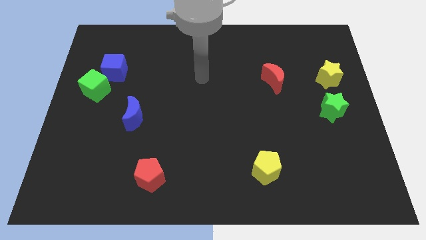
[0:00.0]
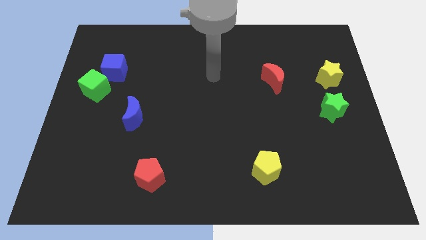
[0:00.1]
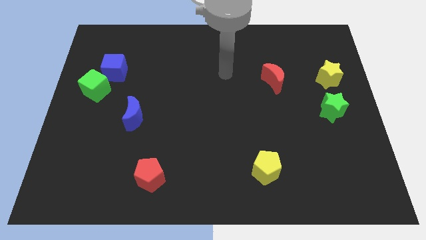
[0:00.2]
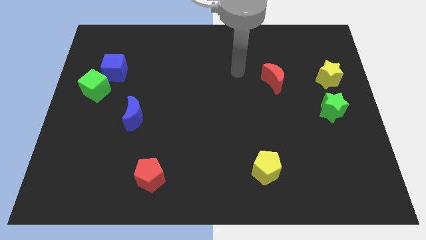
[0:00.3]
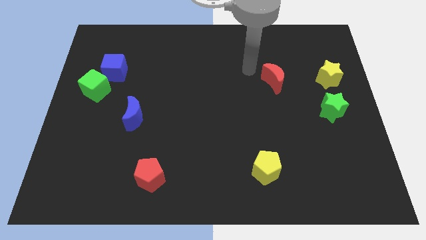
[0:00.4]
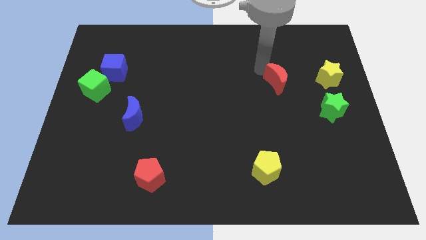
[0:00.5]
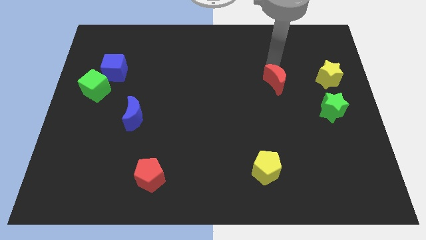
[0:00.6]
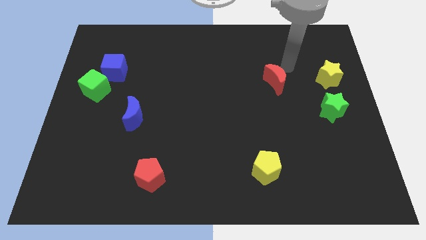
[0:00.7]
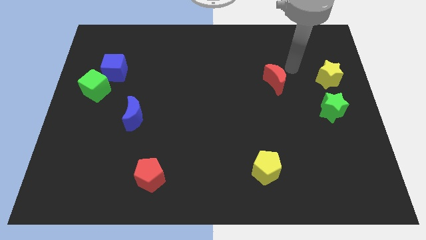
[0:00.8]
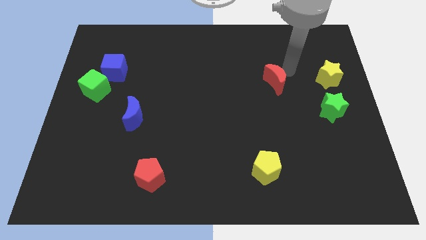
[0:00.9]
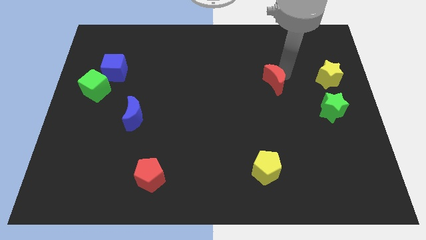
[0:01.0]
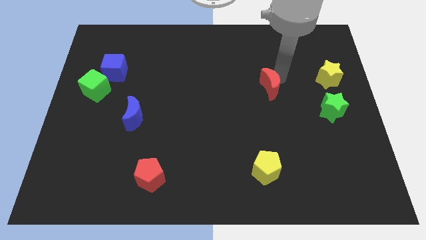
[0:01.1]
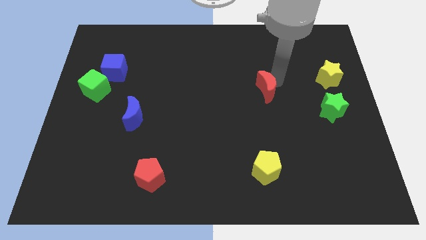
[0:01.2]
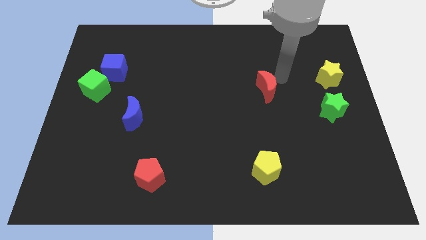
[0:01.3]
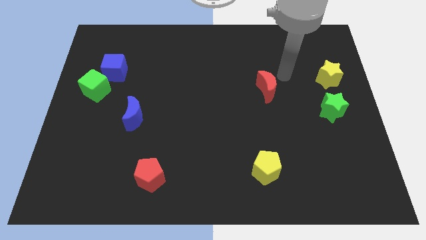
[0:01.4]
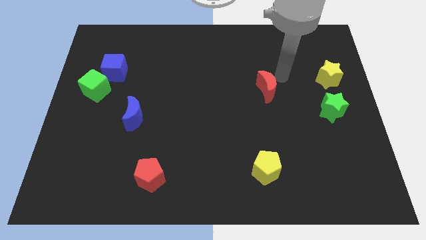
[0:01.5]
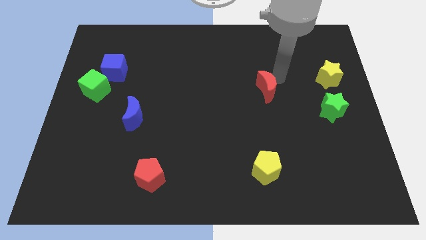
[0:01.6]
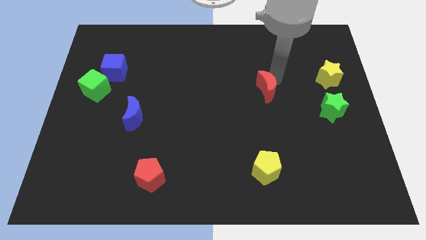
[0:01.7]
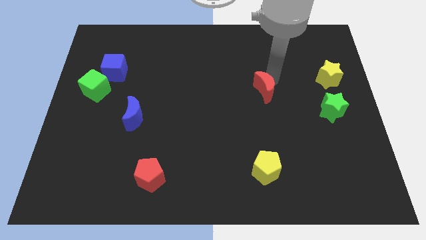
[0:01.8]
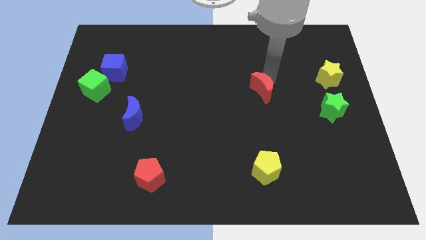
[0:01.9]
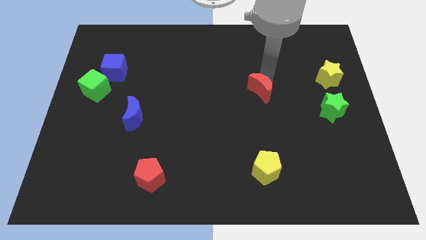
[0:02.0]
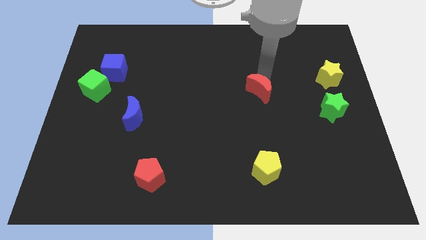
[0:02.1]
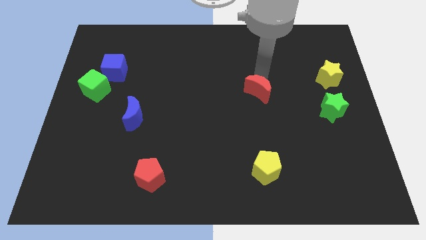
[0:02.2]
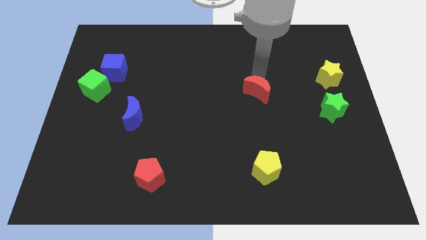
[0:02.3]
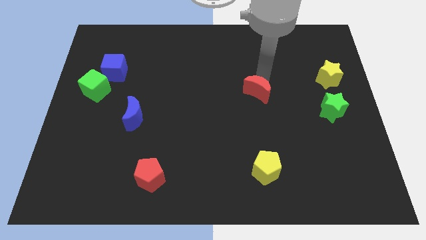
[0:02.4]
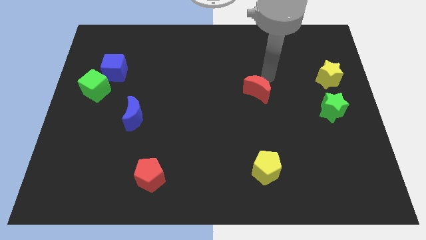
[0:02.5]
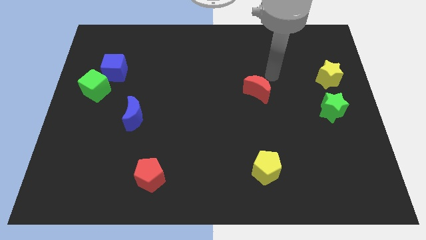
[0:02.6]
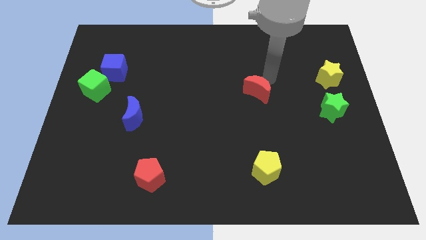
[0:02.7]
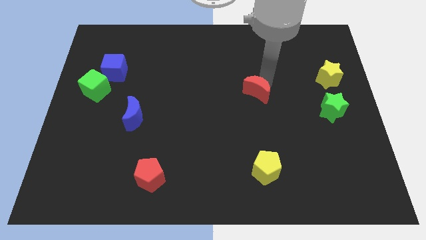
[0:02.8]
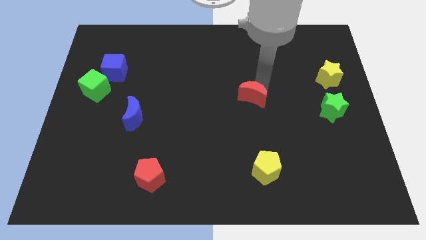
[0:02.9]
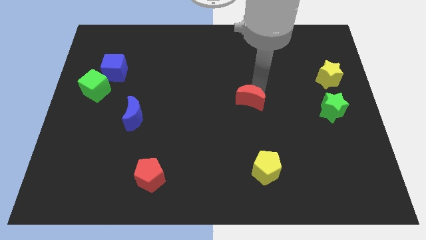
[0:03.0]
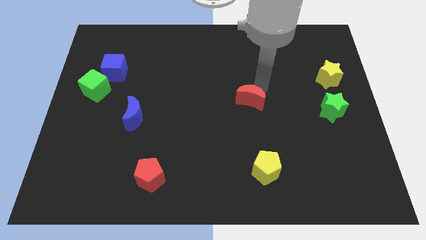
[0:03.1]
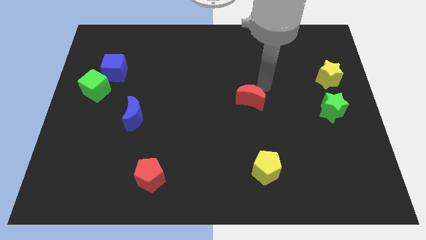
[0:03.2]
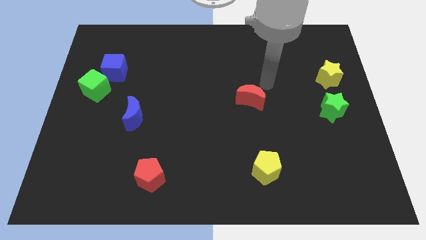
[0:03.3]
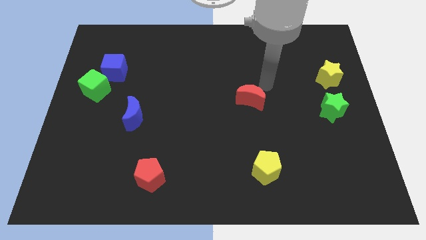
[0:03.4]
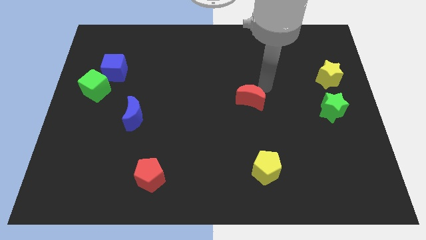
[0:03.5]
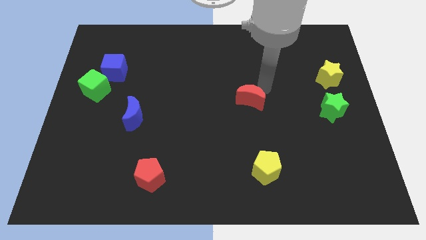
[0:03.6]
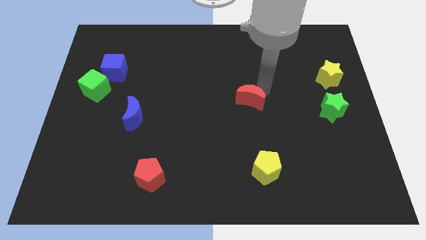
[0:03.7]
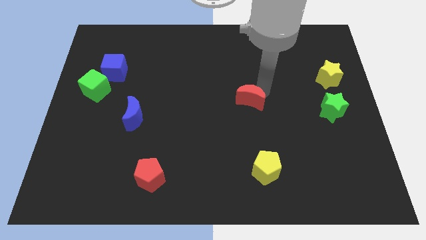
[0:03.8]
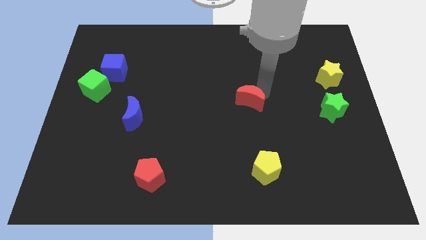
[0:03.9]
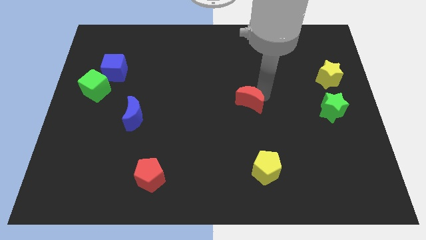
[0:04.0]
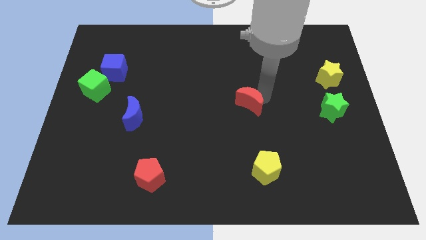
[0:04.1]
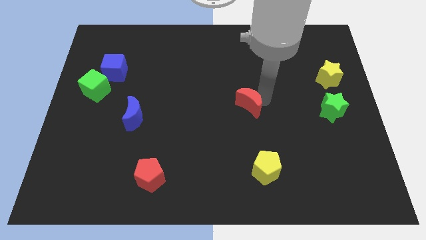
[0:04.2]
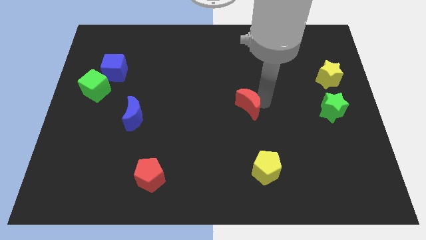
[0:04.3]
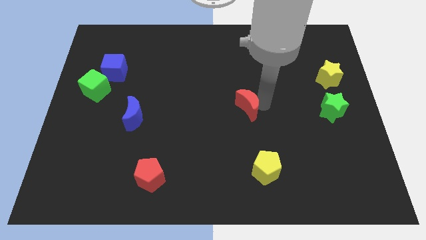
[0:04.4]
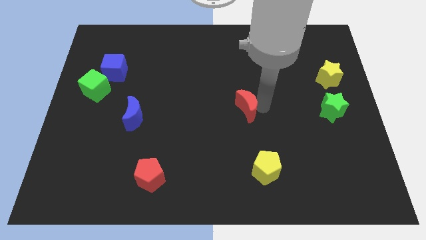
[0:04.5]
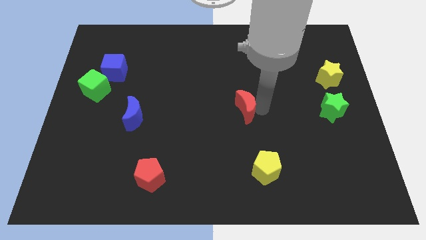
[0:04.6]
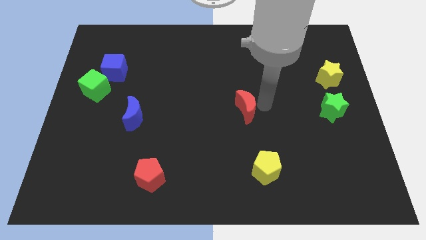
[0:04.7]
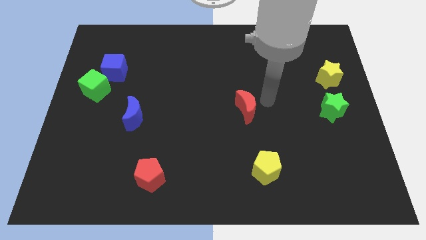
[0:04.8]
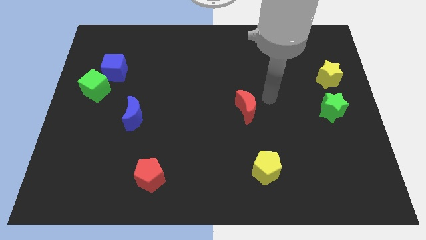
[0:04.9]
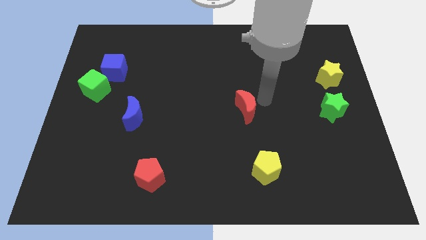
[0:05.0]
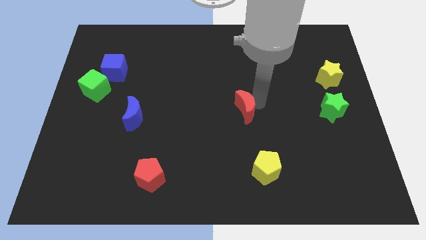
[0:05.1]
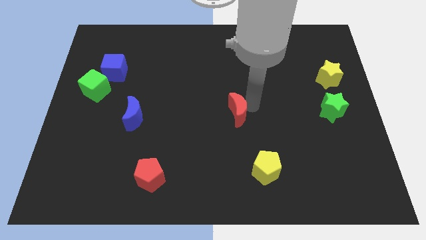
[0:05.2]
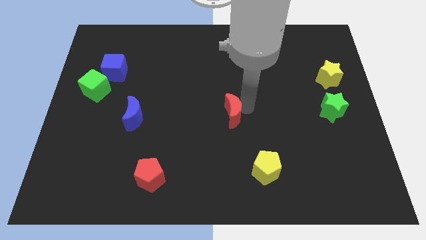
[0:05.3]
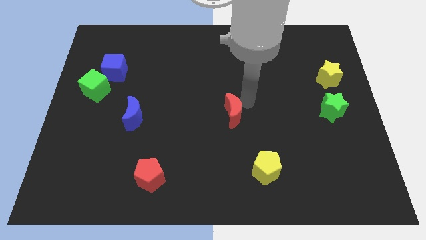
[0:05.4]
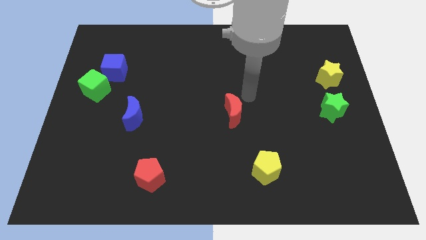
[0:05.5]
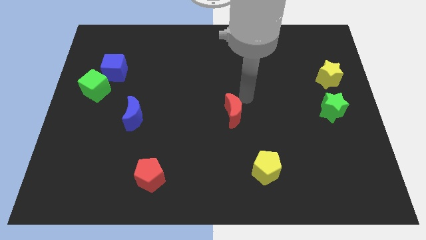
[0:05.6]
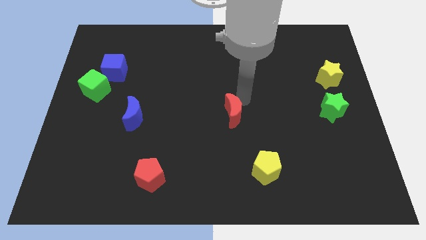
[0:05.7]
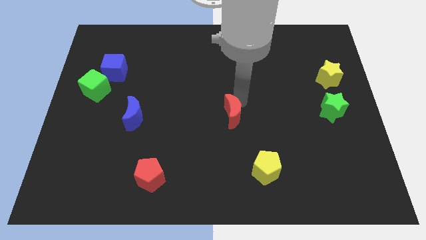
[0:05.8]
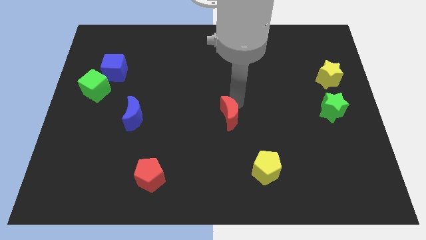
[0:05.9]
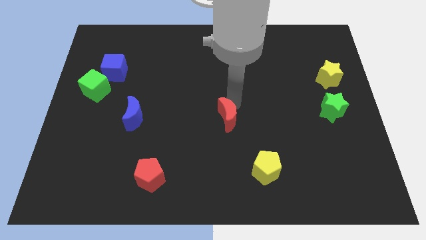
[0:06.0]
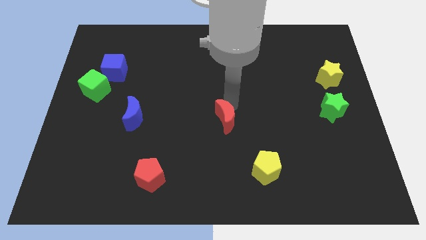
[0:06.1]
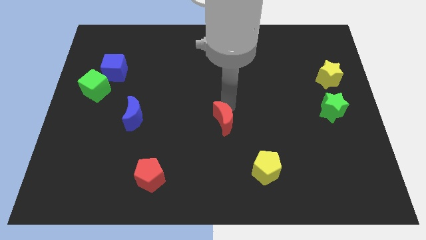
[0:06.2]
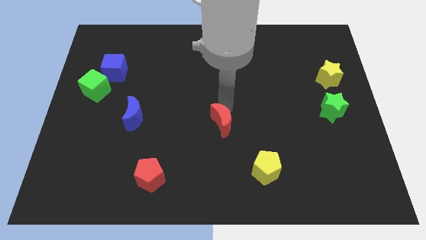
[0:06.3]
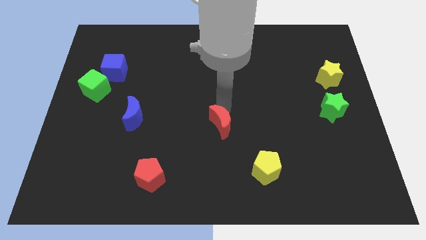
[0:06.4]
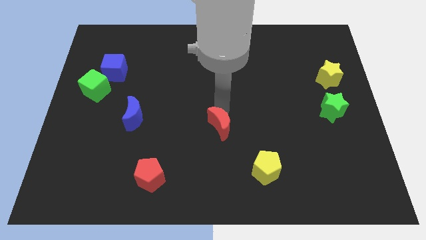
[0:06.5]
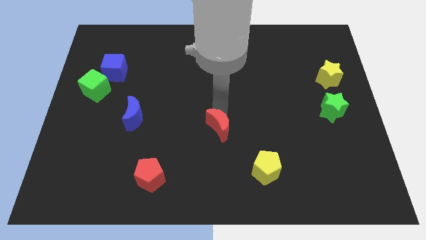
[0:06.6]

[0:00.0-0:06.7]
push the red moon diagonally down and to the left

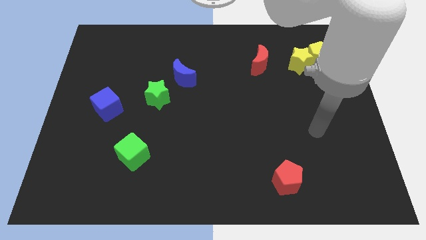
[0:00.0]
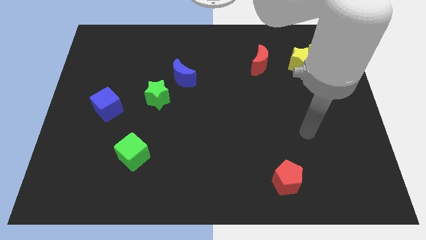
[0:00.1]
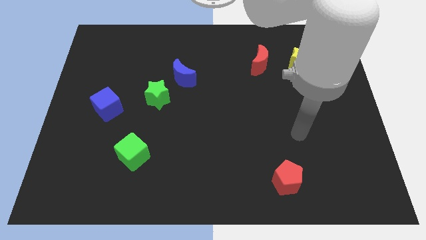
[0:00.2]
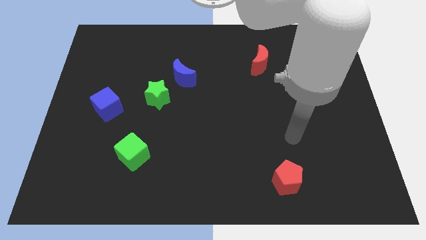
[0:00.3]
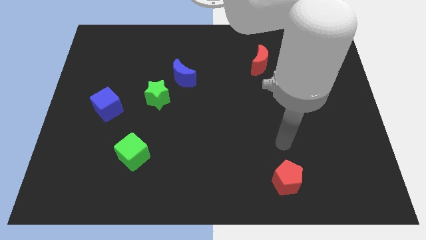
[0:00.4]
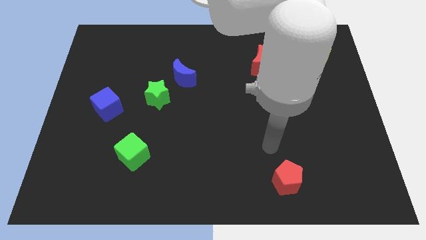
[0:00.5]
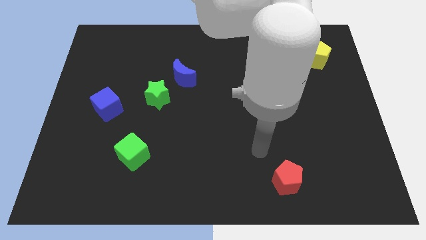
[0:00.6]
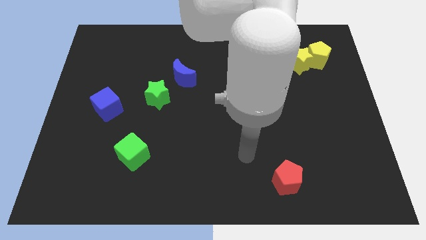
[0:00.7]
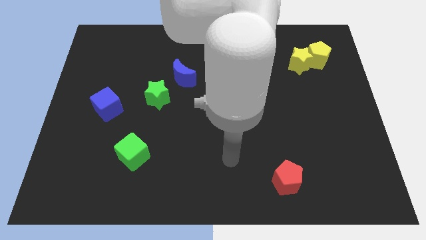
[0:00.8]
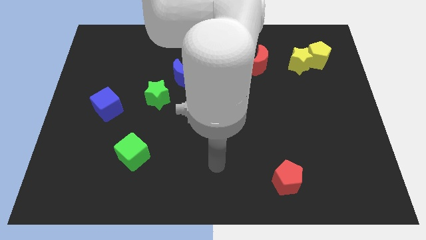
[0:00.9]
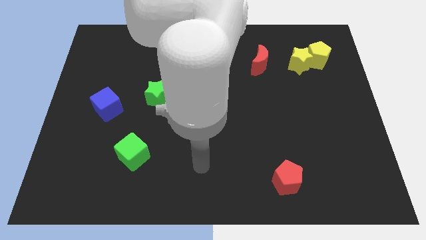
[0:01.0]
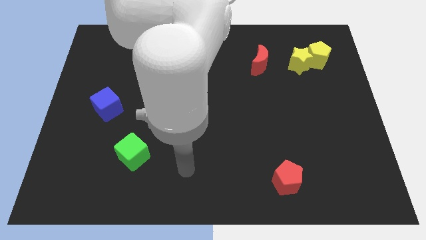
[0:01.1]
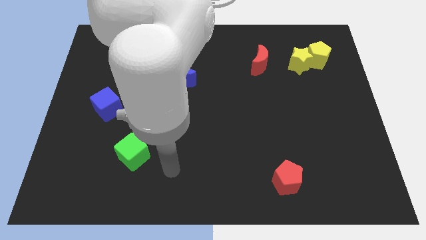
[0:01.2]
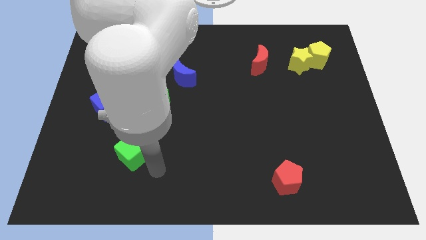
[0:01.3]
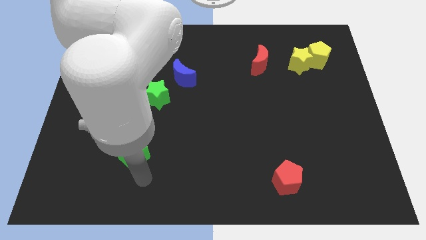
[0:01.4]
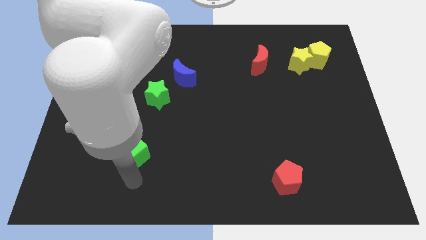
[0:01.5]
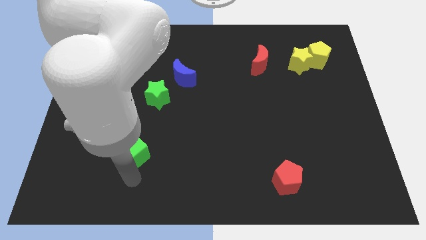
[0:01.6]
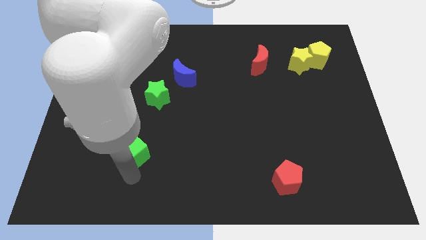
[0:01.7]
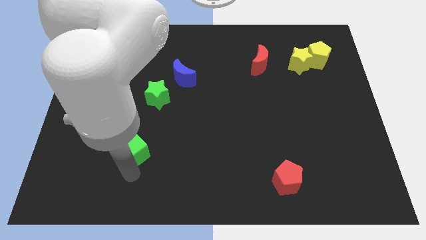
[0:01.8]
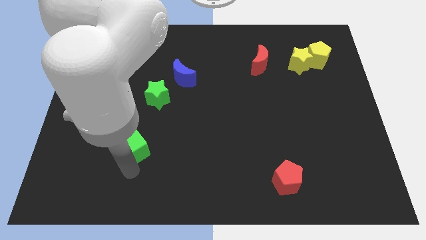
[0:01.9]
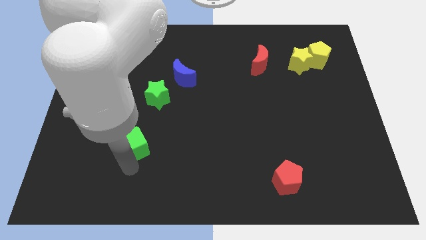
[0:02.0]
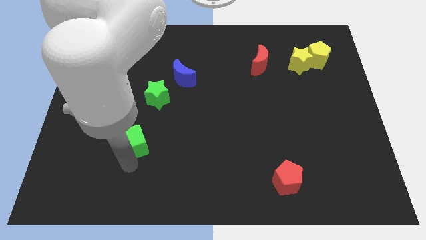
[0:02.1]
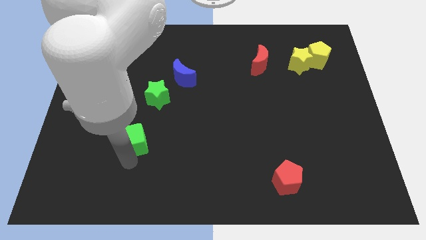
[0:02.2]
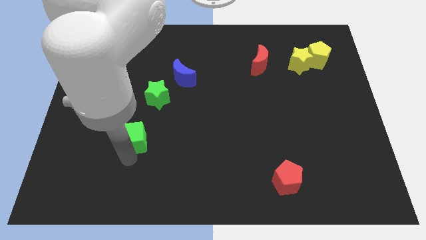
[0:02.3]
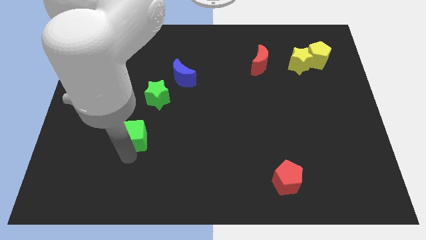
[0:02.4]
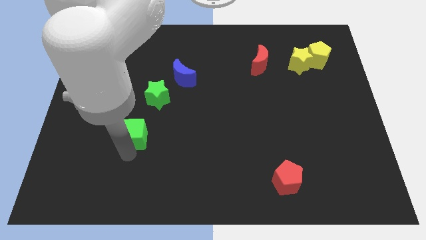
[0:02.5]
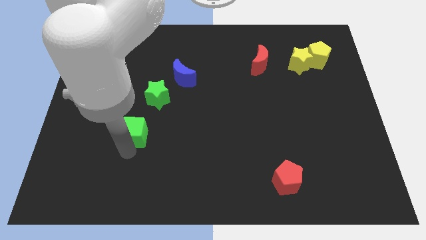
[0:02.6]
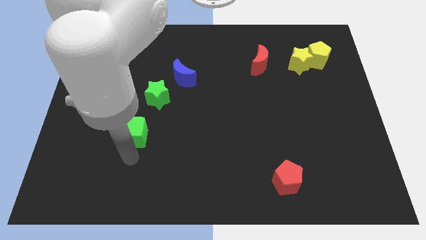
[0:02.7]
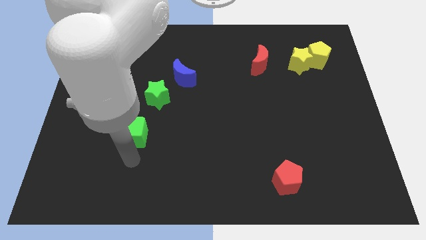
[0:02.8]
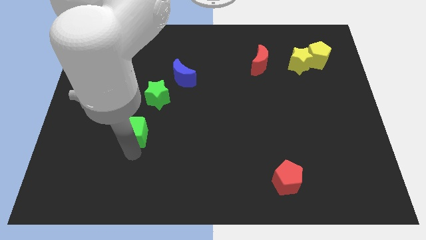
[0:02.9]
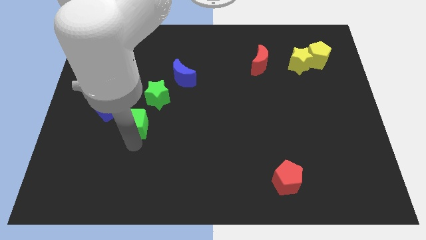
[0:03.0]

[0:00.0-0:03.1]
slightly move the green cube up
